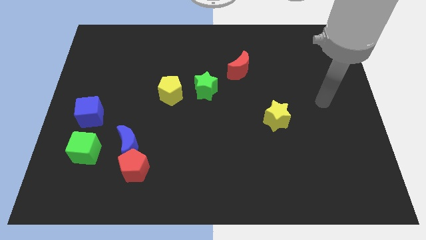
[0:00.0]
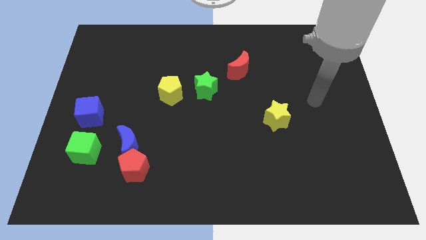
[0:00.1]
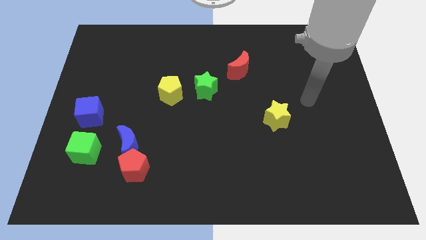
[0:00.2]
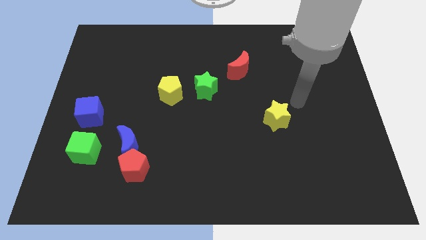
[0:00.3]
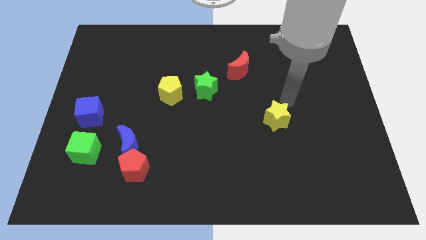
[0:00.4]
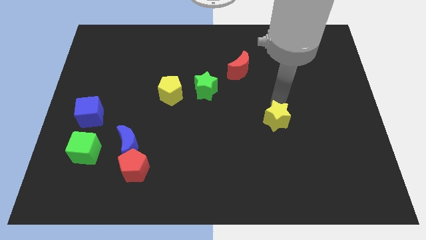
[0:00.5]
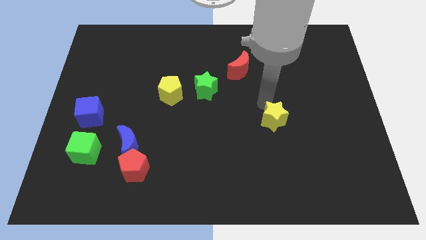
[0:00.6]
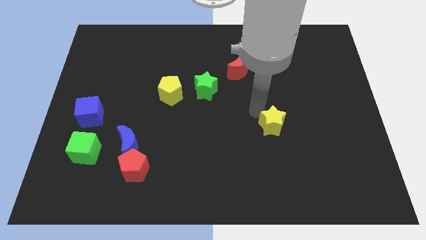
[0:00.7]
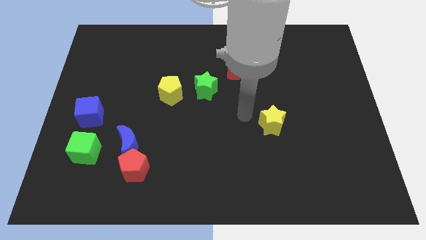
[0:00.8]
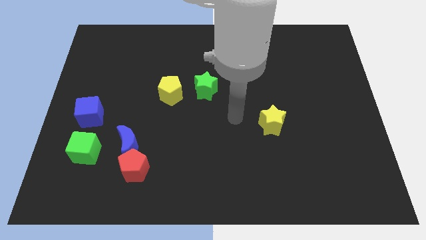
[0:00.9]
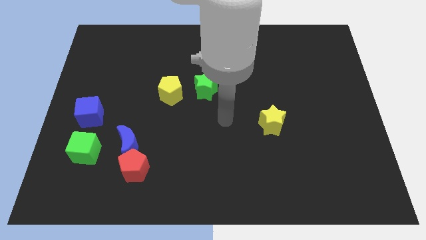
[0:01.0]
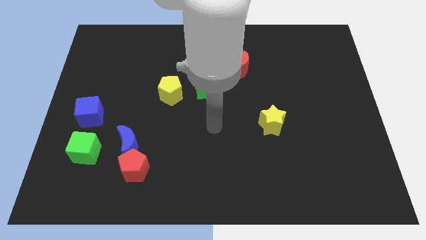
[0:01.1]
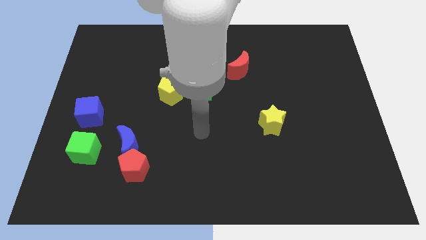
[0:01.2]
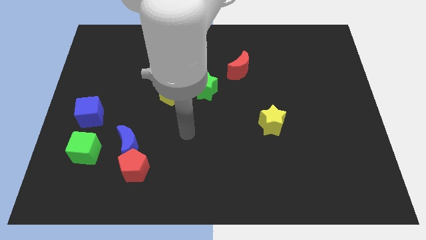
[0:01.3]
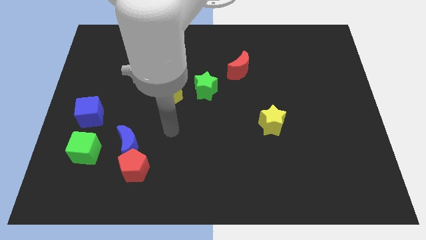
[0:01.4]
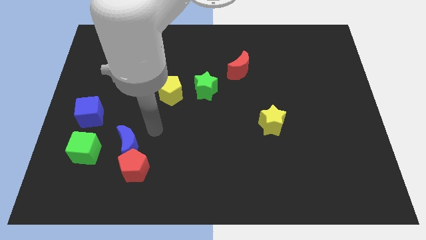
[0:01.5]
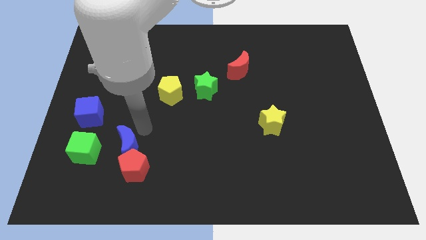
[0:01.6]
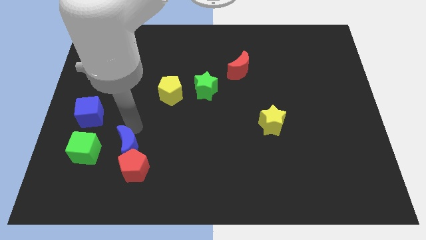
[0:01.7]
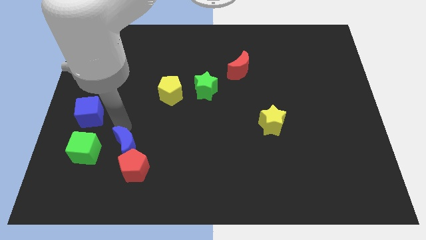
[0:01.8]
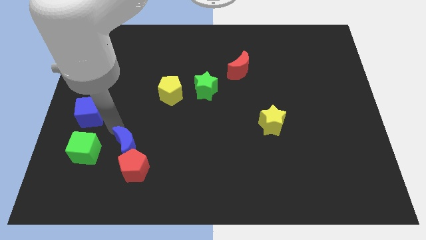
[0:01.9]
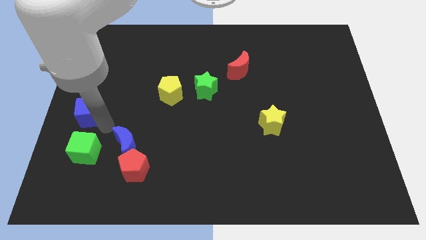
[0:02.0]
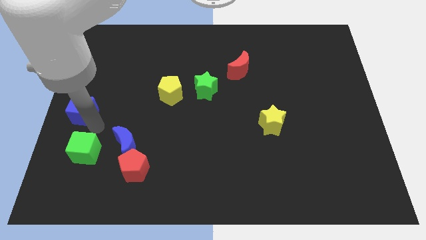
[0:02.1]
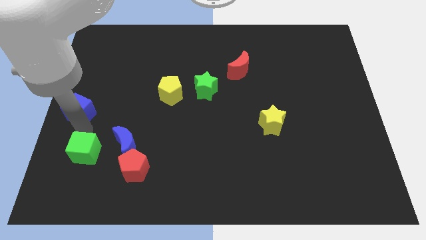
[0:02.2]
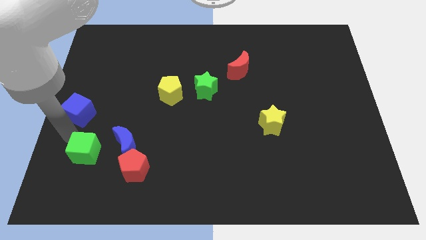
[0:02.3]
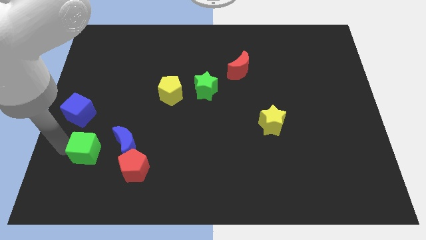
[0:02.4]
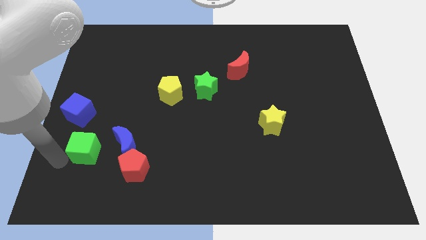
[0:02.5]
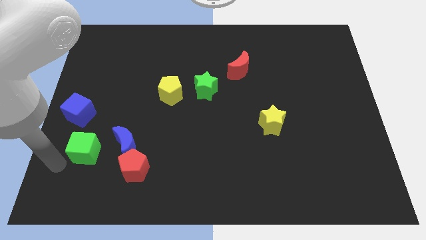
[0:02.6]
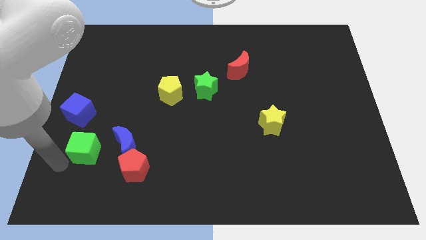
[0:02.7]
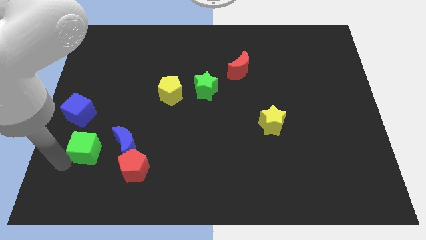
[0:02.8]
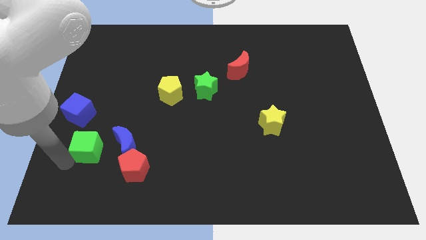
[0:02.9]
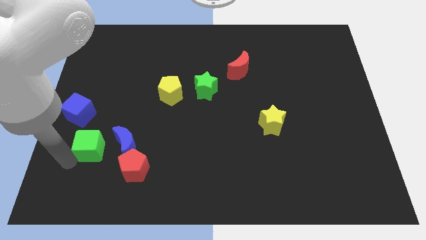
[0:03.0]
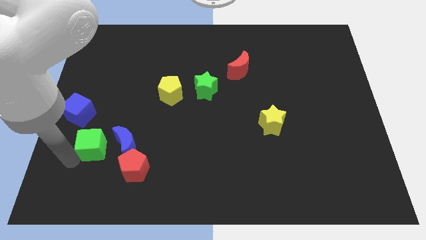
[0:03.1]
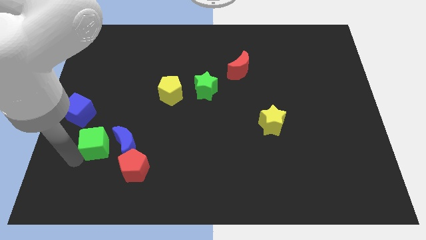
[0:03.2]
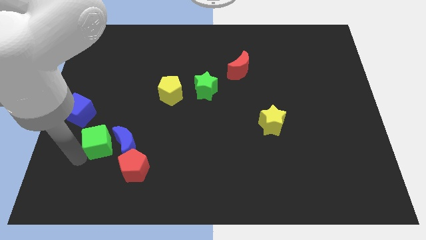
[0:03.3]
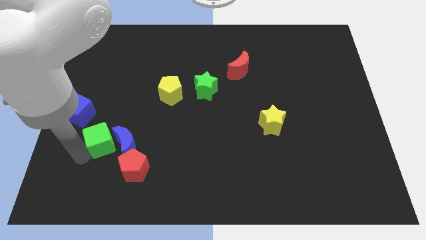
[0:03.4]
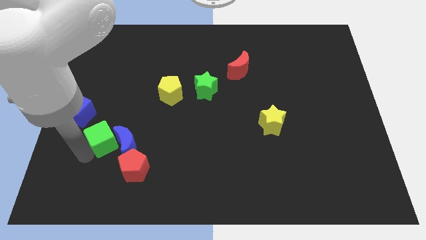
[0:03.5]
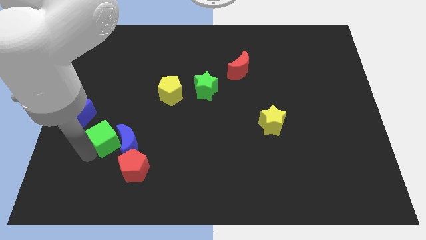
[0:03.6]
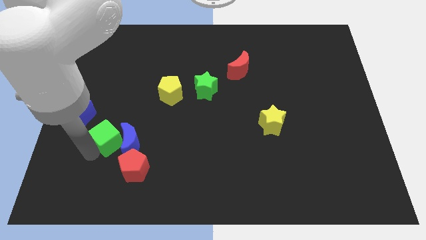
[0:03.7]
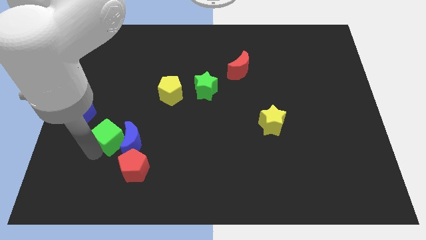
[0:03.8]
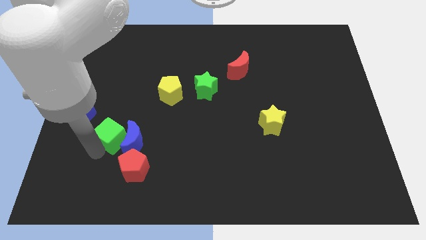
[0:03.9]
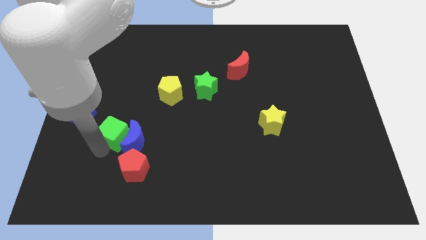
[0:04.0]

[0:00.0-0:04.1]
push the green cube somewhat upwards and to the right diagonally

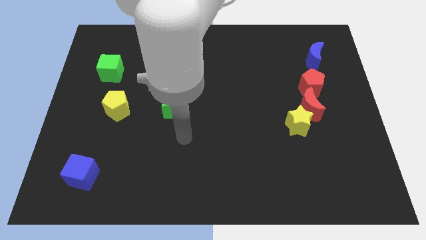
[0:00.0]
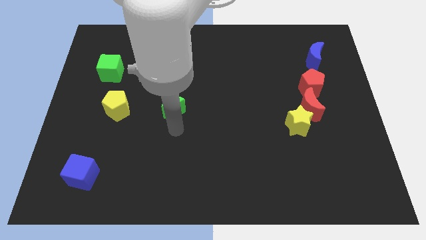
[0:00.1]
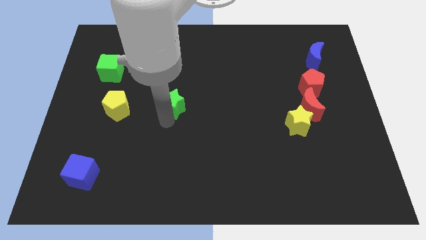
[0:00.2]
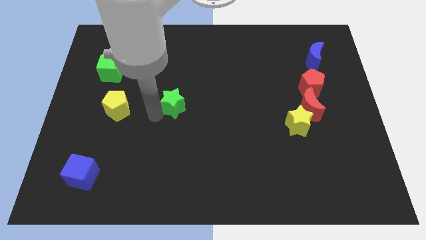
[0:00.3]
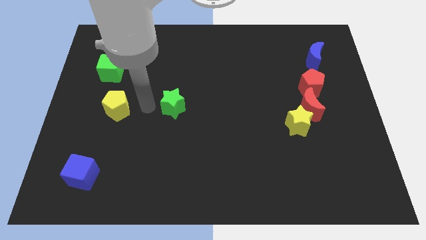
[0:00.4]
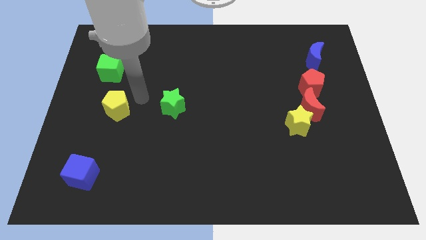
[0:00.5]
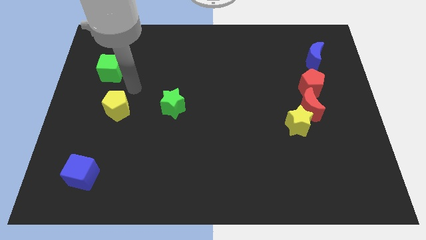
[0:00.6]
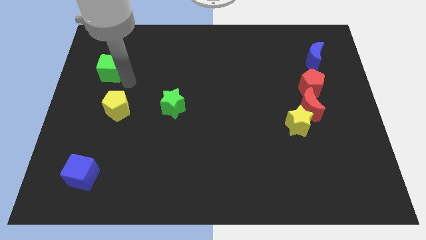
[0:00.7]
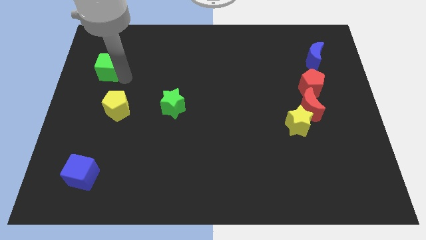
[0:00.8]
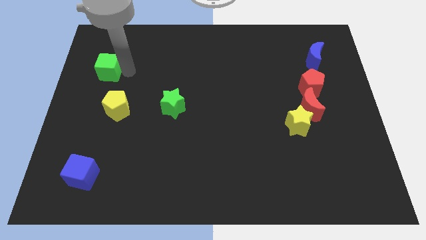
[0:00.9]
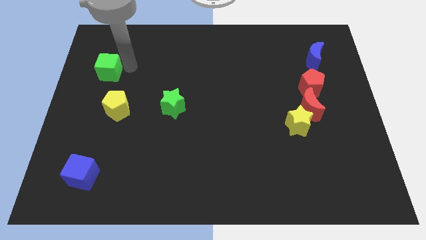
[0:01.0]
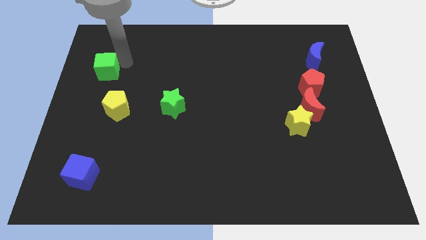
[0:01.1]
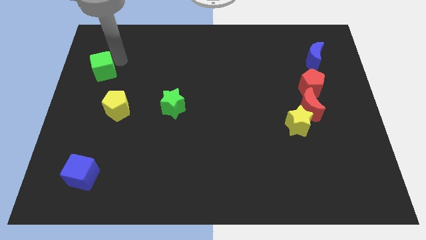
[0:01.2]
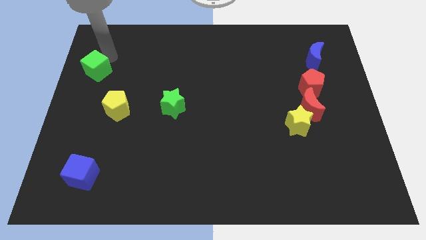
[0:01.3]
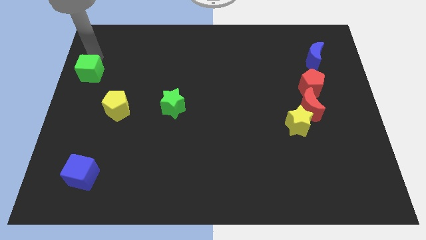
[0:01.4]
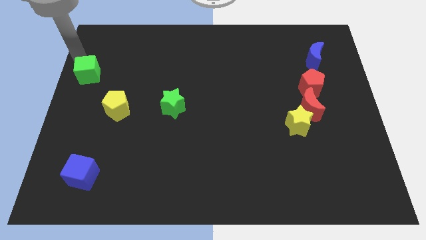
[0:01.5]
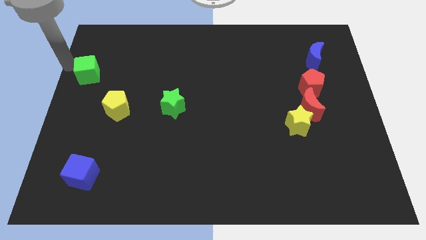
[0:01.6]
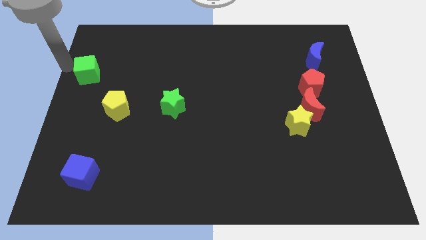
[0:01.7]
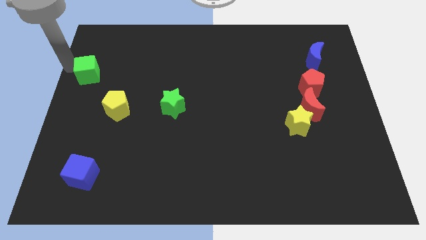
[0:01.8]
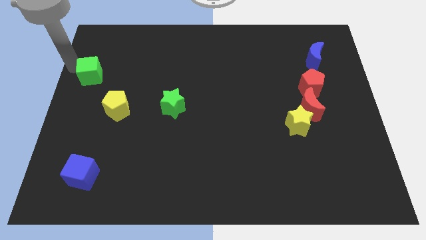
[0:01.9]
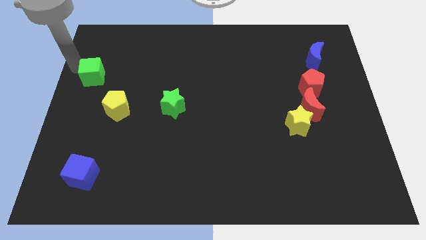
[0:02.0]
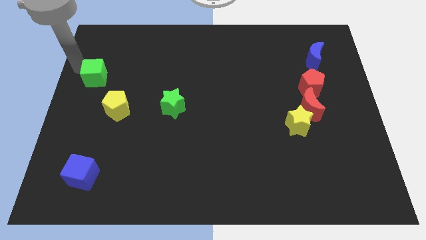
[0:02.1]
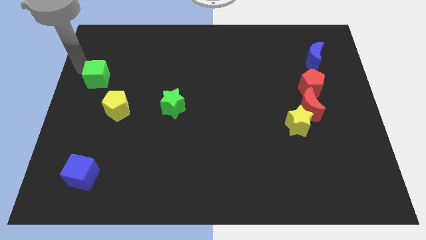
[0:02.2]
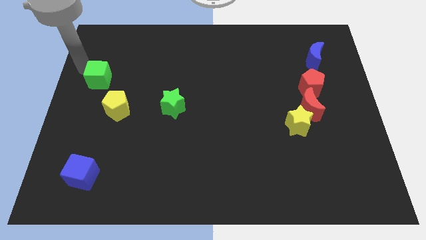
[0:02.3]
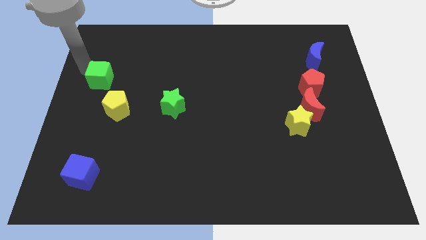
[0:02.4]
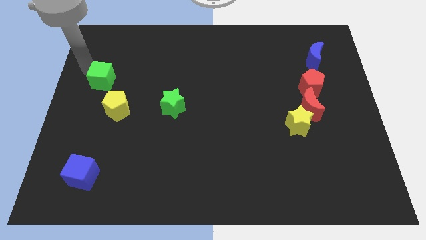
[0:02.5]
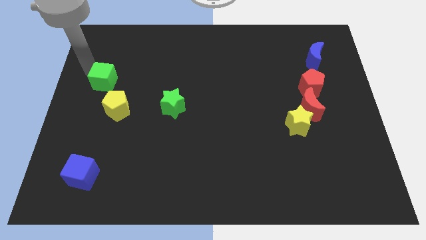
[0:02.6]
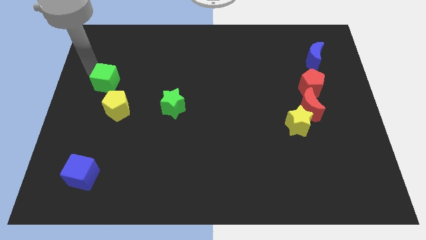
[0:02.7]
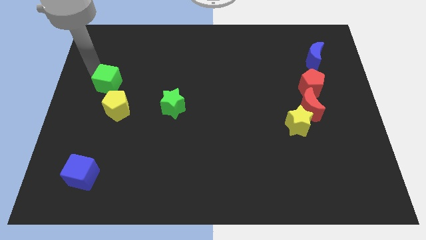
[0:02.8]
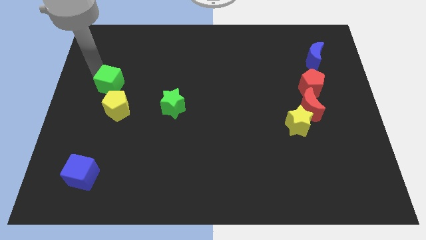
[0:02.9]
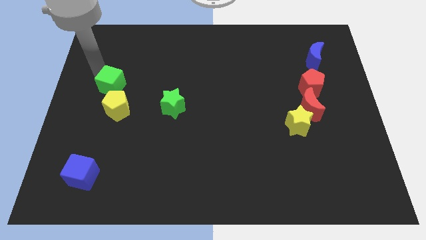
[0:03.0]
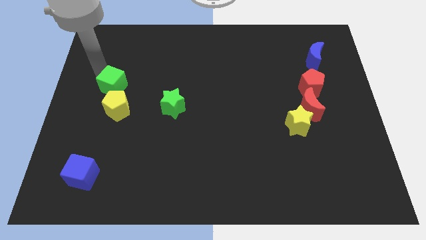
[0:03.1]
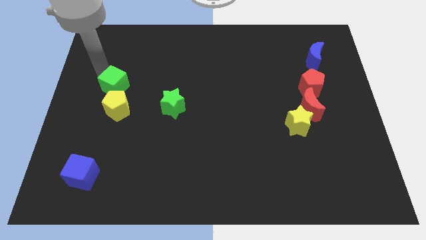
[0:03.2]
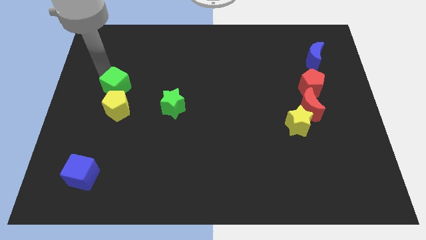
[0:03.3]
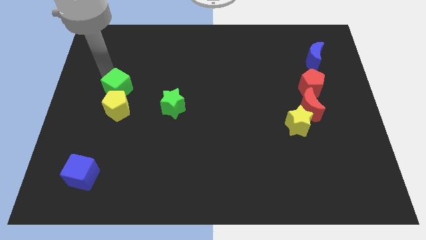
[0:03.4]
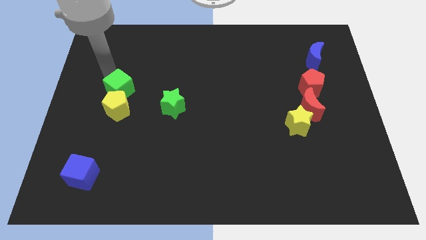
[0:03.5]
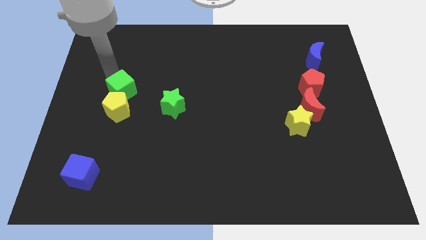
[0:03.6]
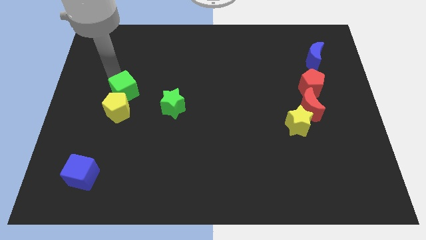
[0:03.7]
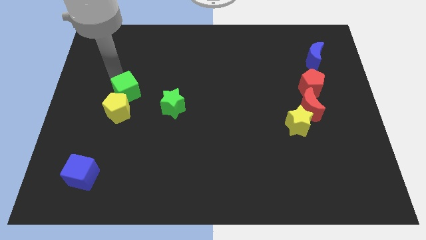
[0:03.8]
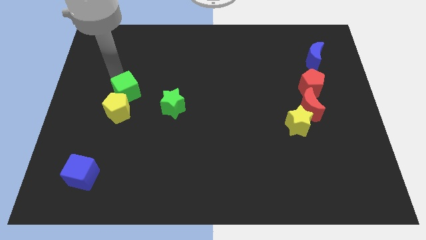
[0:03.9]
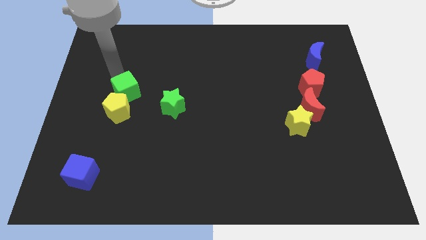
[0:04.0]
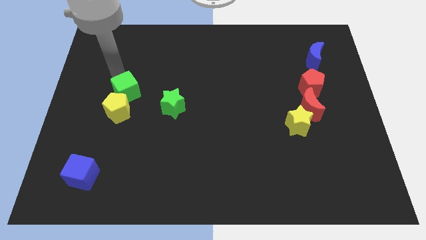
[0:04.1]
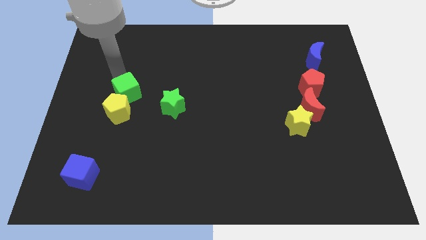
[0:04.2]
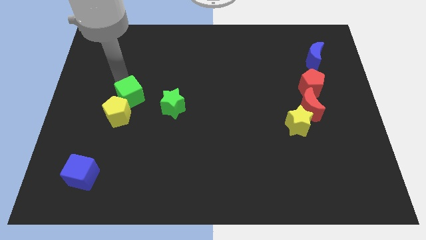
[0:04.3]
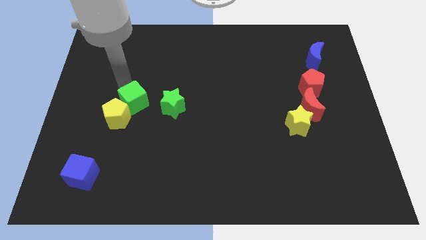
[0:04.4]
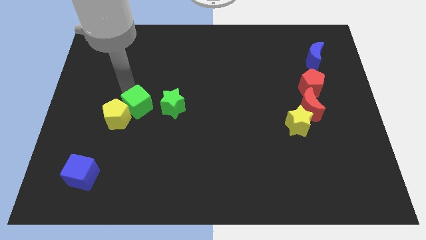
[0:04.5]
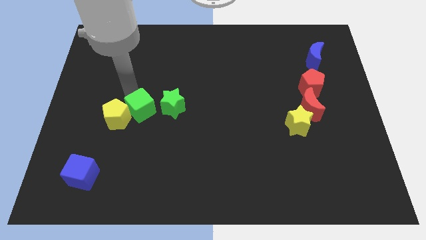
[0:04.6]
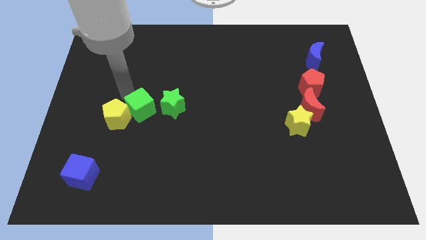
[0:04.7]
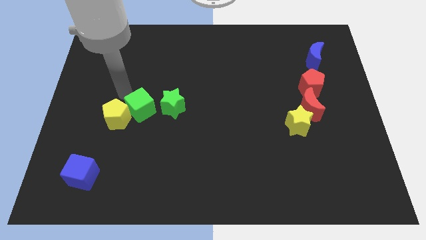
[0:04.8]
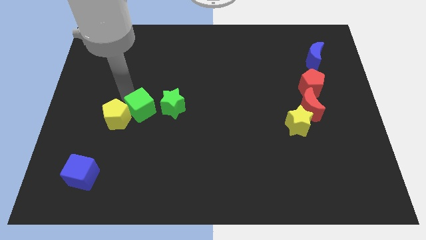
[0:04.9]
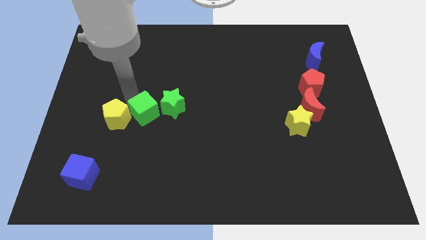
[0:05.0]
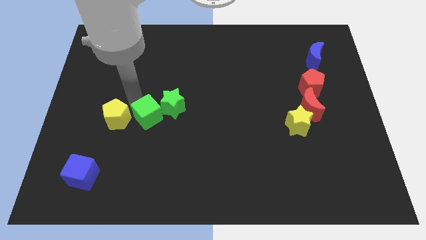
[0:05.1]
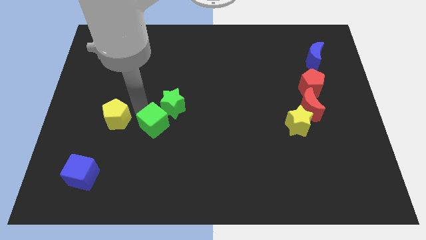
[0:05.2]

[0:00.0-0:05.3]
push the green cube downwards and right
